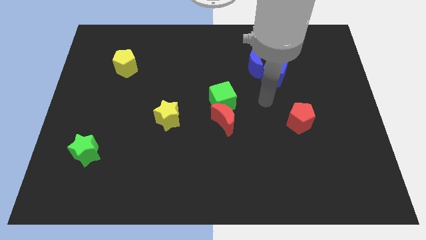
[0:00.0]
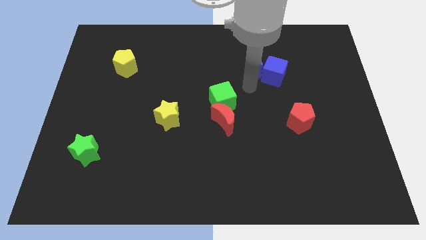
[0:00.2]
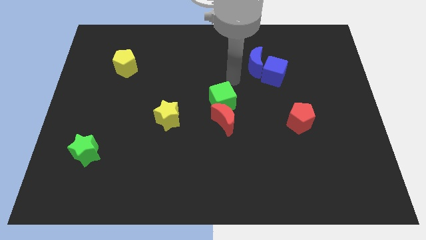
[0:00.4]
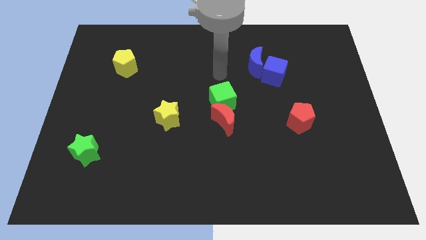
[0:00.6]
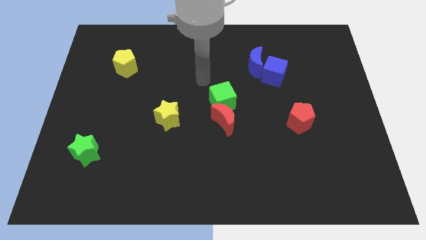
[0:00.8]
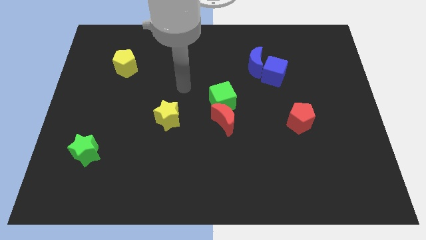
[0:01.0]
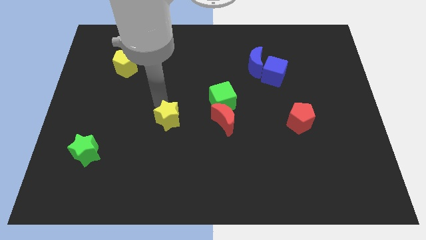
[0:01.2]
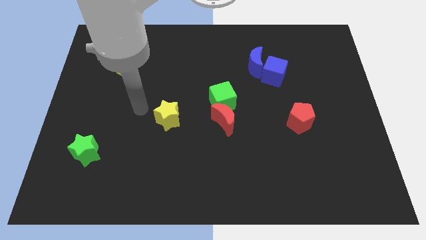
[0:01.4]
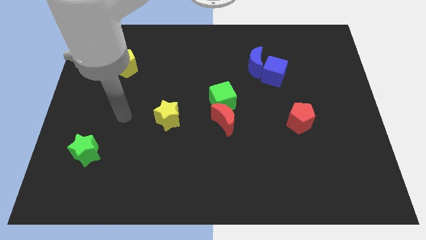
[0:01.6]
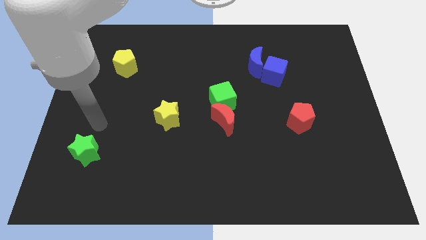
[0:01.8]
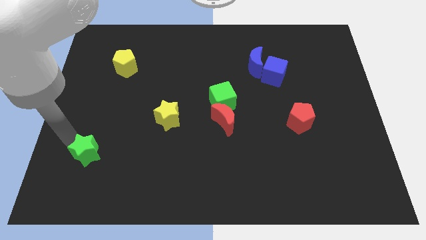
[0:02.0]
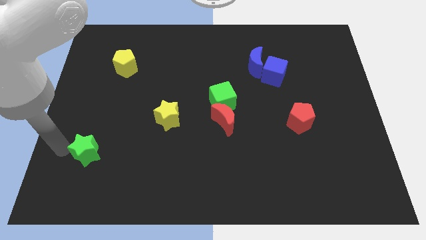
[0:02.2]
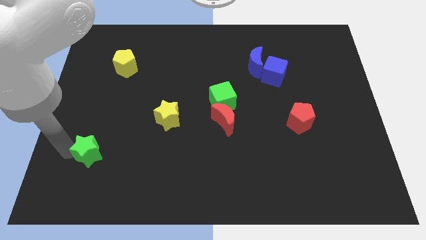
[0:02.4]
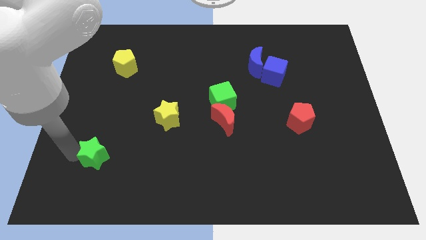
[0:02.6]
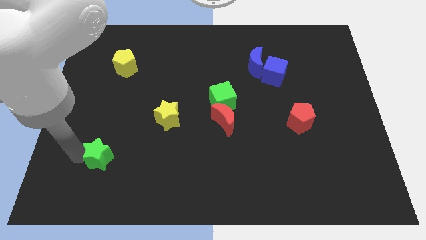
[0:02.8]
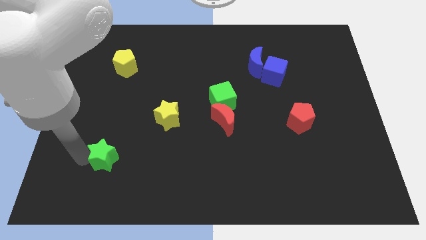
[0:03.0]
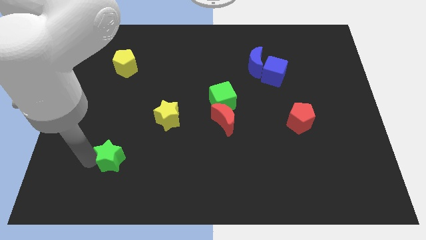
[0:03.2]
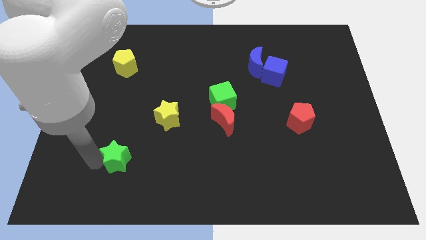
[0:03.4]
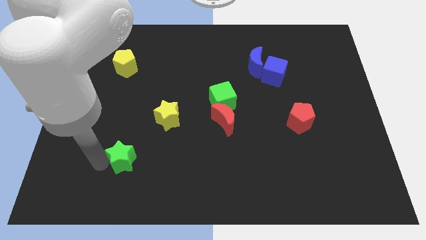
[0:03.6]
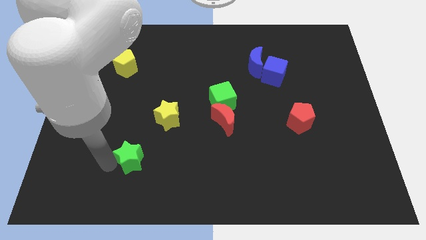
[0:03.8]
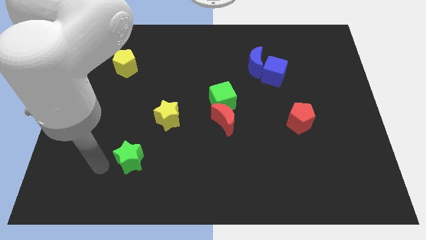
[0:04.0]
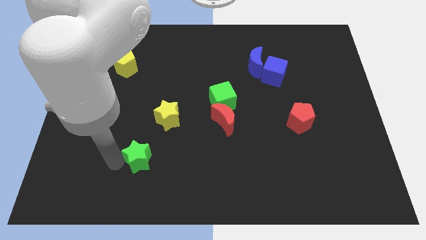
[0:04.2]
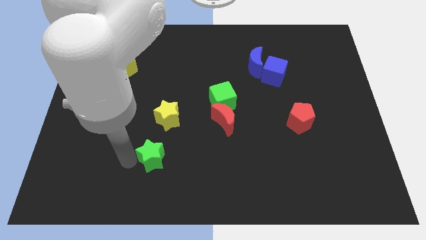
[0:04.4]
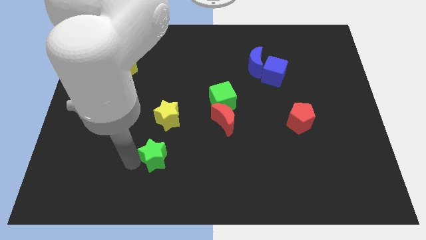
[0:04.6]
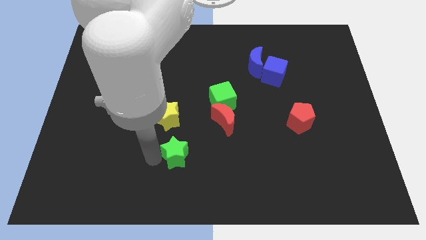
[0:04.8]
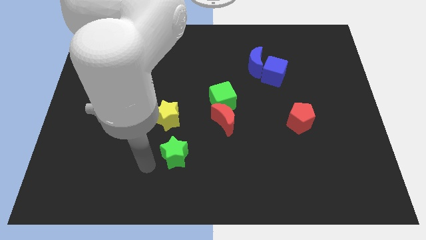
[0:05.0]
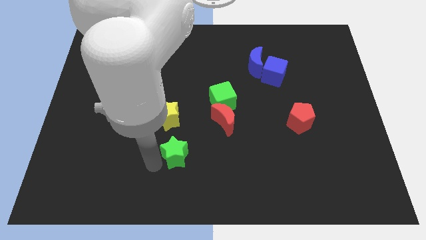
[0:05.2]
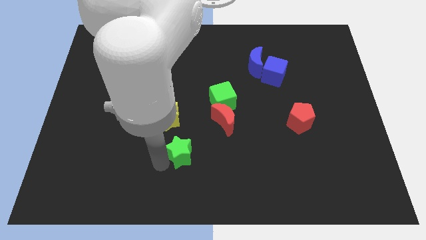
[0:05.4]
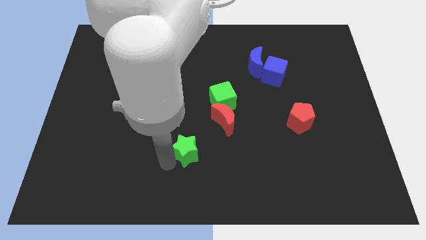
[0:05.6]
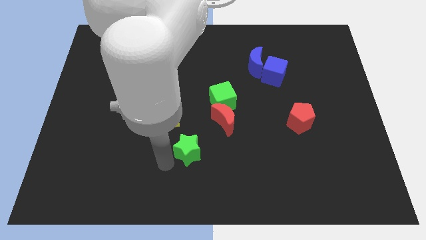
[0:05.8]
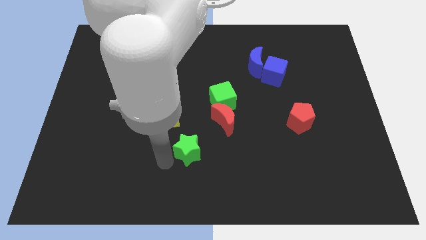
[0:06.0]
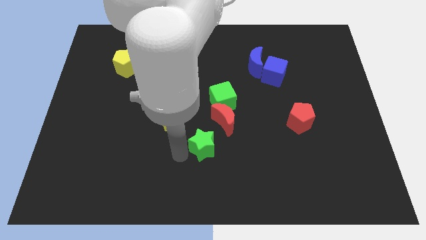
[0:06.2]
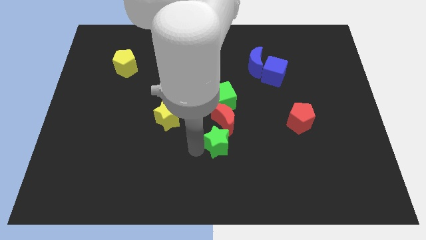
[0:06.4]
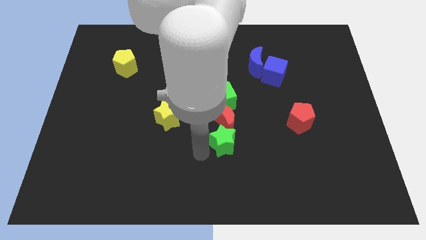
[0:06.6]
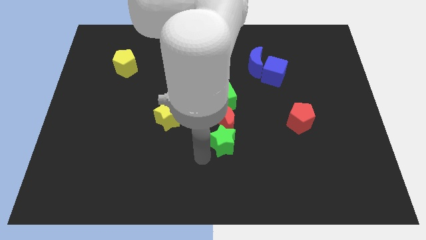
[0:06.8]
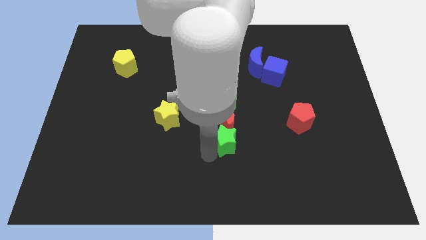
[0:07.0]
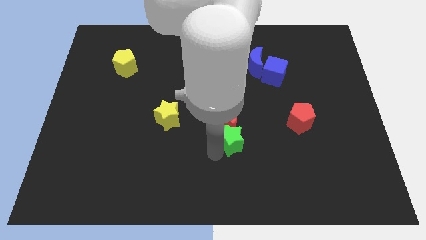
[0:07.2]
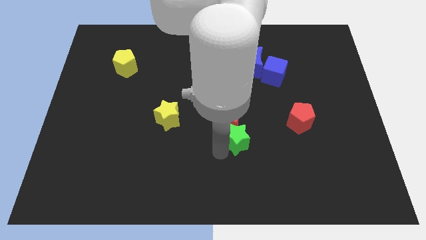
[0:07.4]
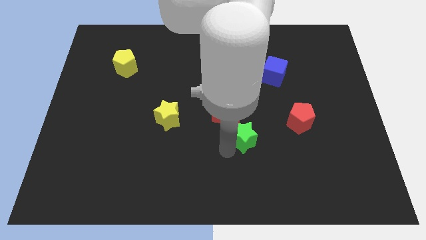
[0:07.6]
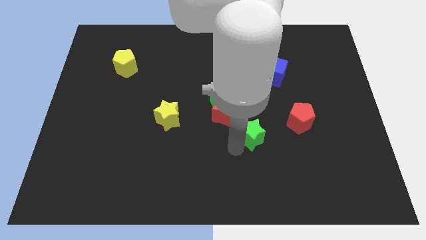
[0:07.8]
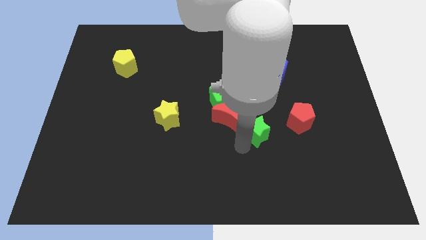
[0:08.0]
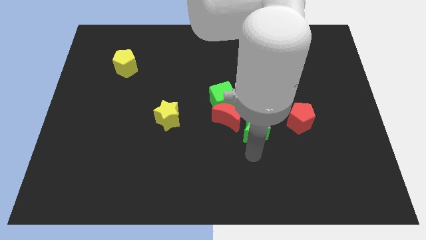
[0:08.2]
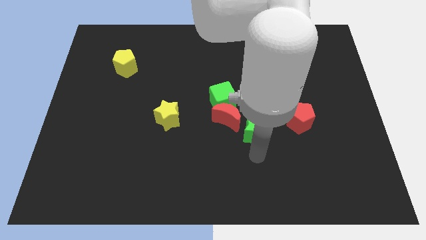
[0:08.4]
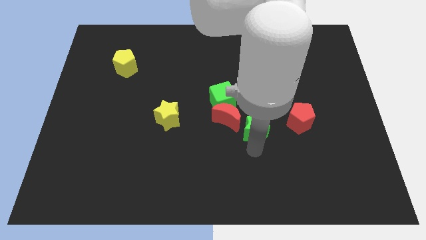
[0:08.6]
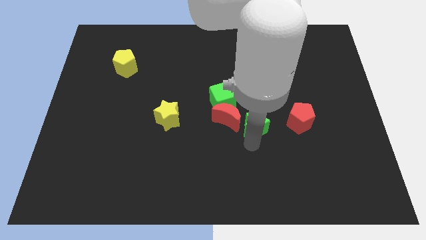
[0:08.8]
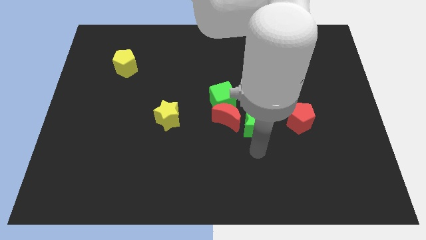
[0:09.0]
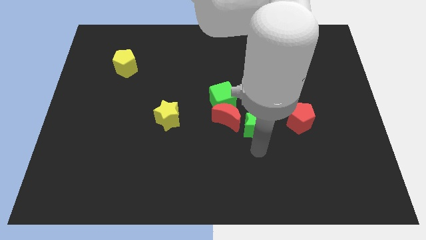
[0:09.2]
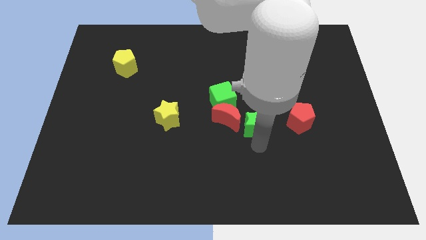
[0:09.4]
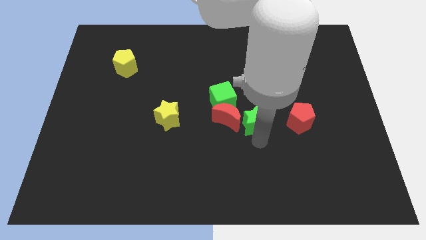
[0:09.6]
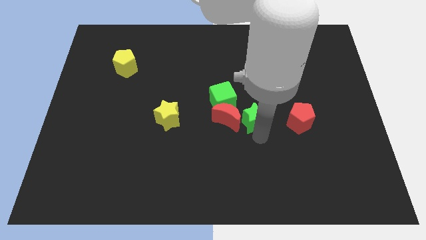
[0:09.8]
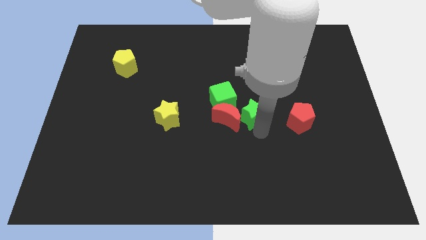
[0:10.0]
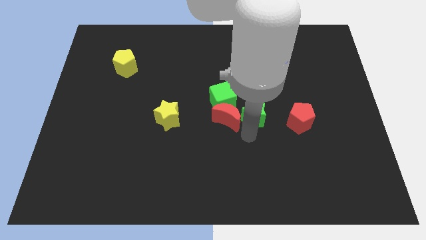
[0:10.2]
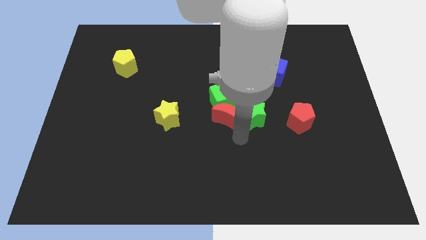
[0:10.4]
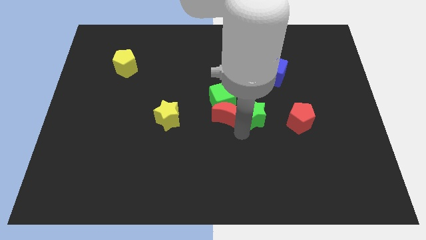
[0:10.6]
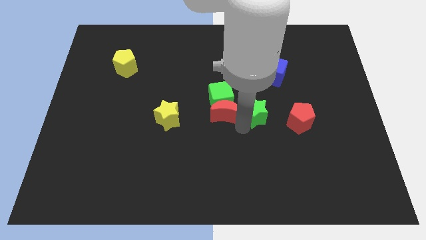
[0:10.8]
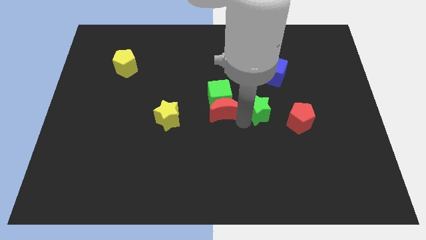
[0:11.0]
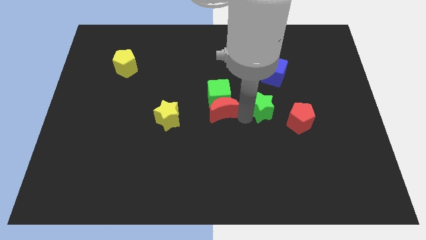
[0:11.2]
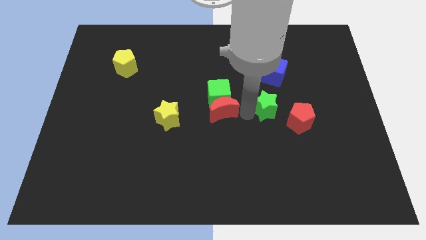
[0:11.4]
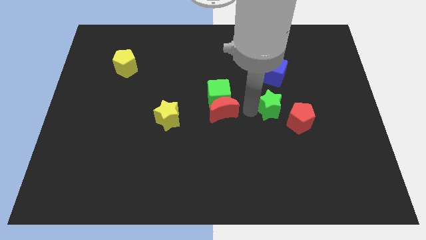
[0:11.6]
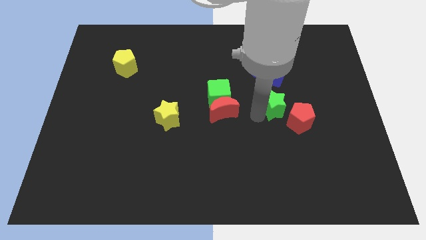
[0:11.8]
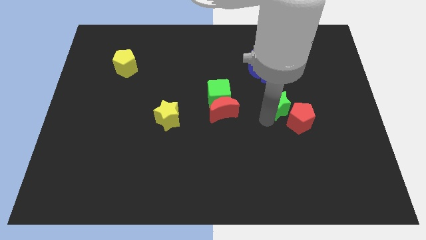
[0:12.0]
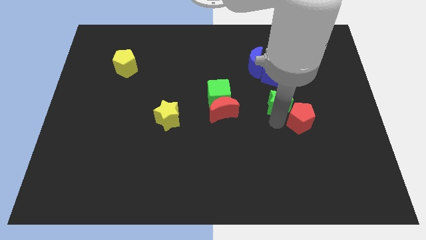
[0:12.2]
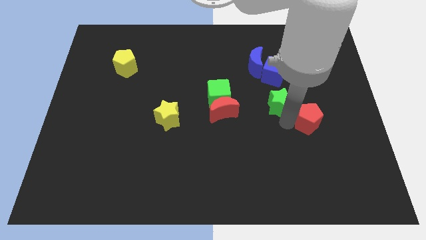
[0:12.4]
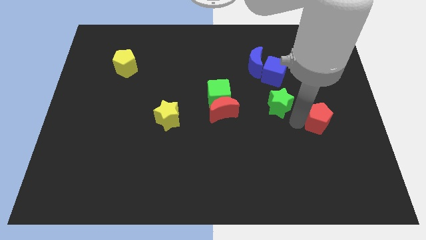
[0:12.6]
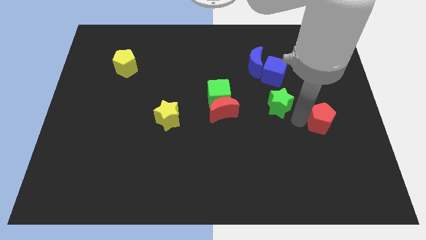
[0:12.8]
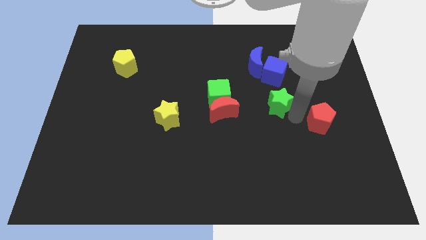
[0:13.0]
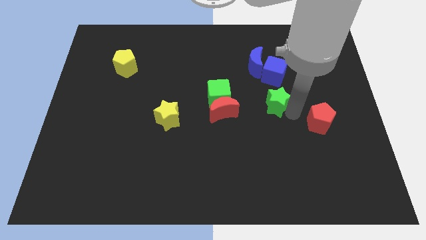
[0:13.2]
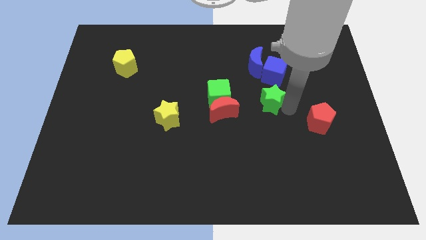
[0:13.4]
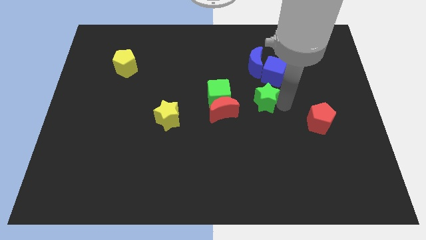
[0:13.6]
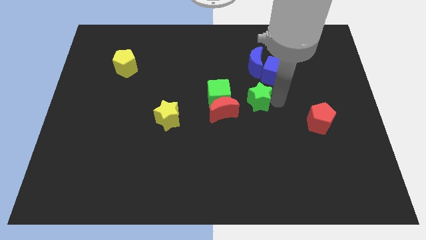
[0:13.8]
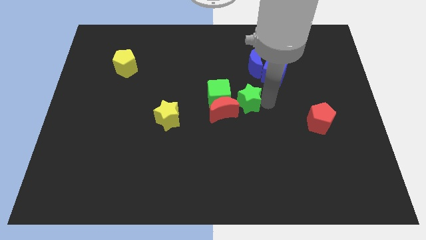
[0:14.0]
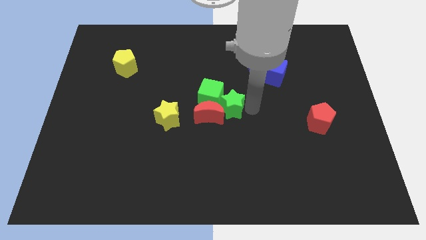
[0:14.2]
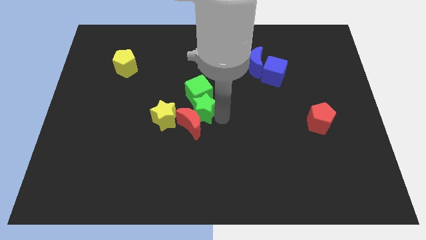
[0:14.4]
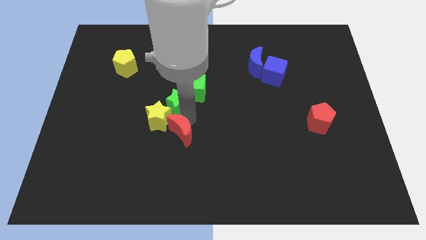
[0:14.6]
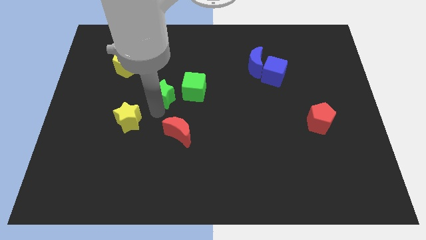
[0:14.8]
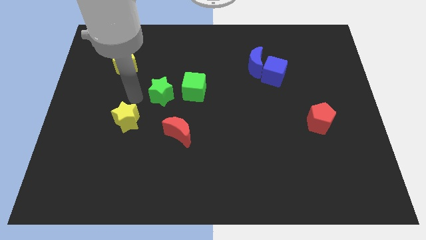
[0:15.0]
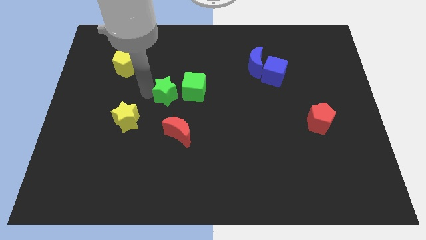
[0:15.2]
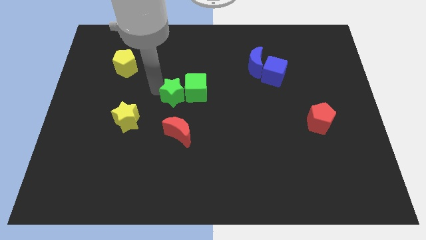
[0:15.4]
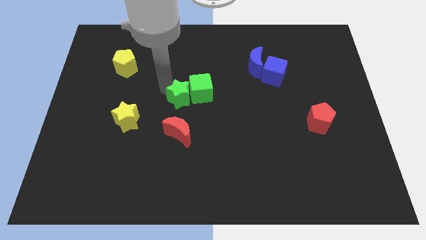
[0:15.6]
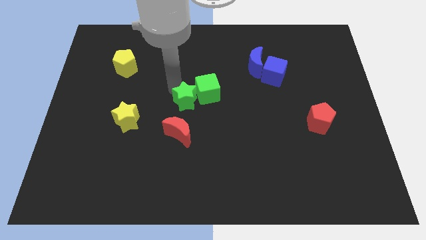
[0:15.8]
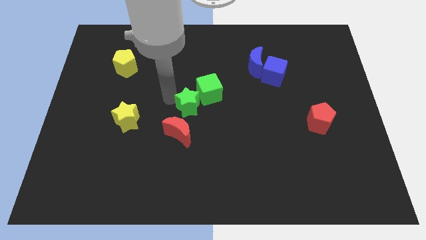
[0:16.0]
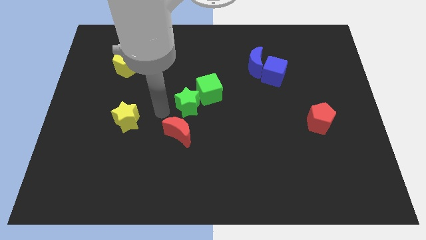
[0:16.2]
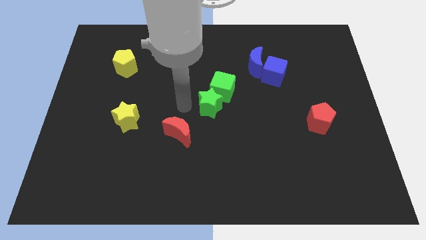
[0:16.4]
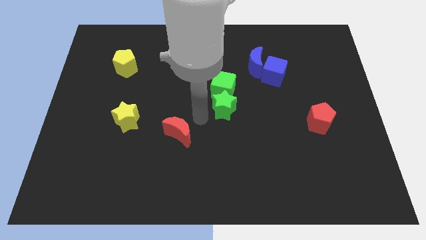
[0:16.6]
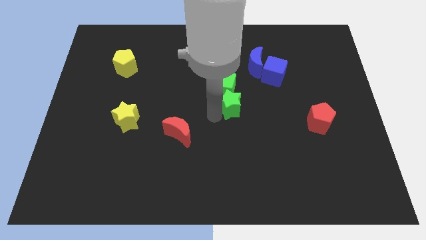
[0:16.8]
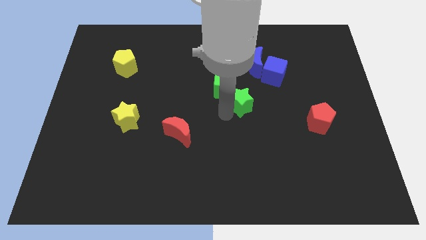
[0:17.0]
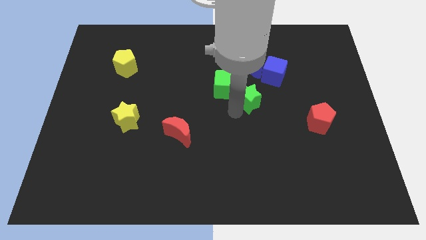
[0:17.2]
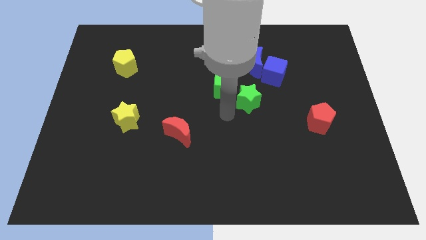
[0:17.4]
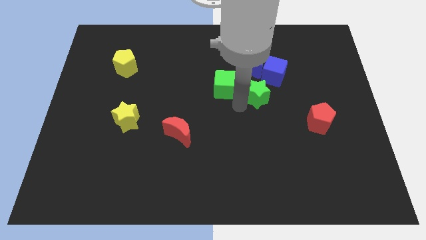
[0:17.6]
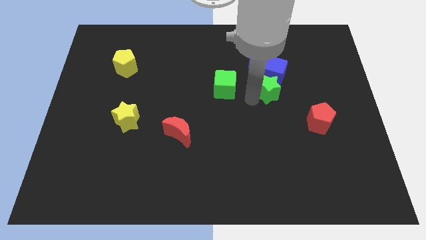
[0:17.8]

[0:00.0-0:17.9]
slide the green star to the bottom right side of the blue moon
